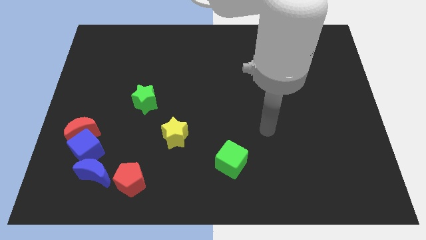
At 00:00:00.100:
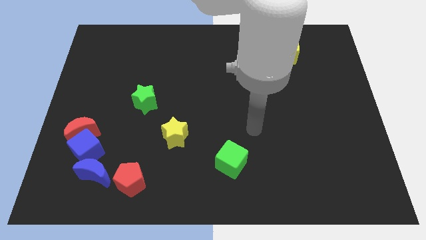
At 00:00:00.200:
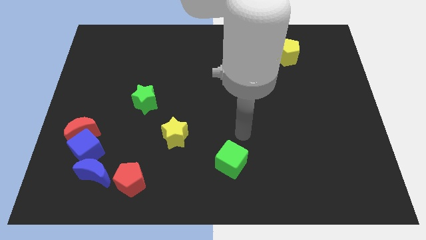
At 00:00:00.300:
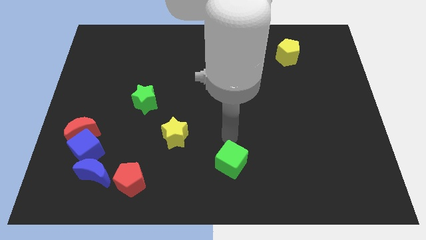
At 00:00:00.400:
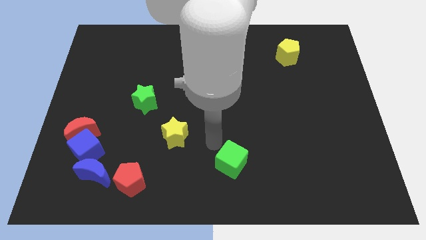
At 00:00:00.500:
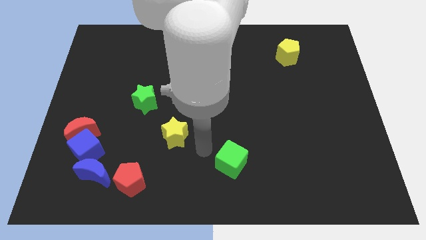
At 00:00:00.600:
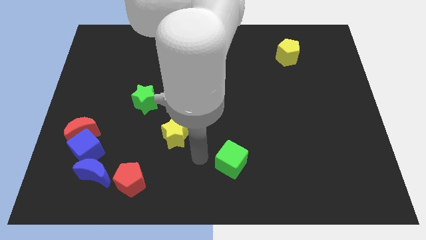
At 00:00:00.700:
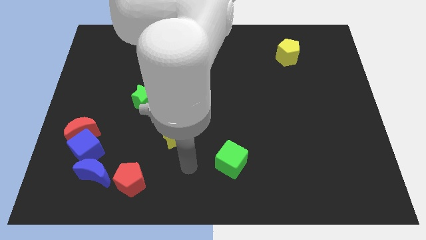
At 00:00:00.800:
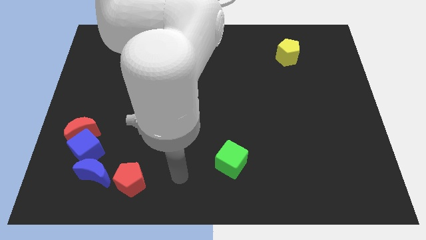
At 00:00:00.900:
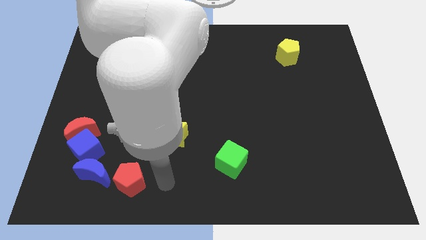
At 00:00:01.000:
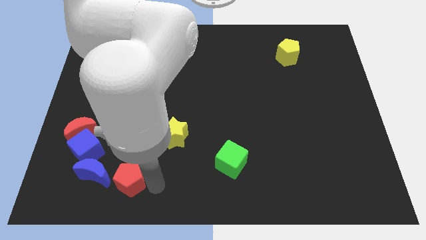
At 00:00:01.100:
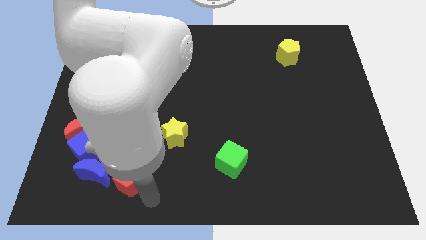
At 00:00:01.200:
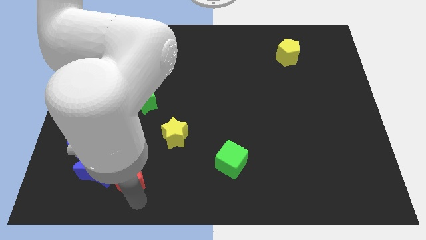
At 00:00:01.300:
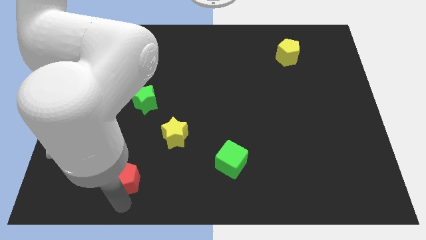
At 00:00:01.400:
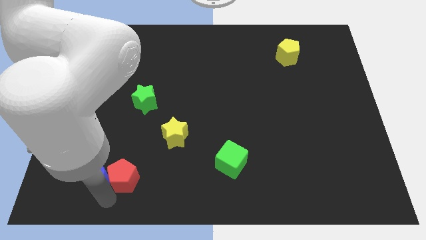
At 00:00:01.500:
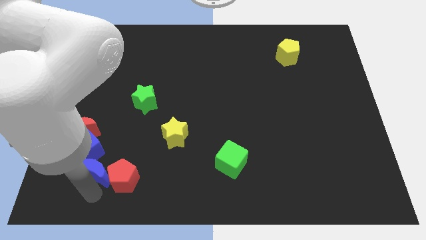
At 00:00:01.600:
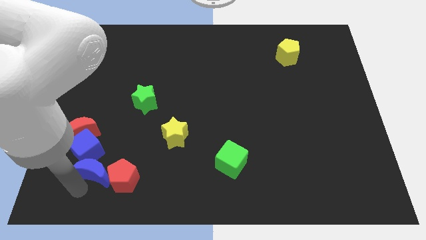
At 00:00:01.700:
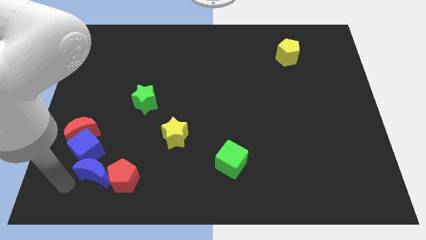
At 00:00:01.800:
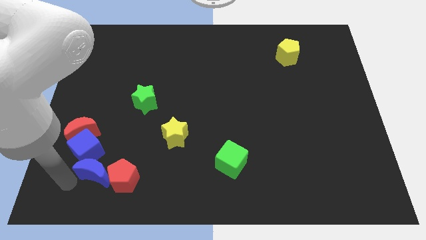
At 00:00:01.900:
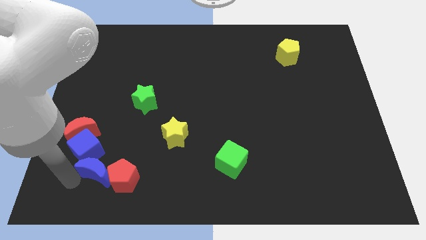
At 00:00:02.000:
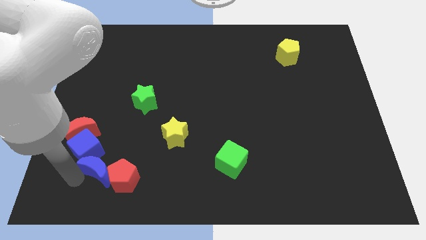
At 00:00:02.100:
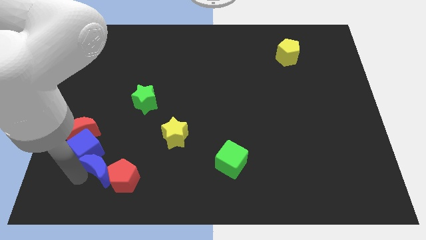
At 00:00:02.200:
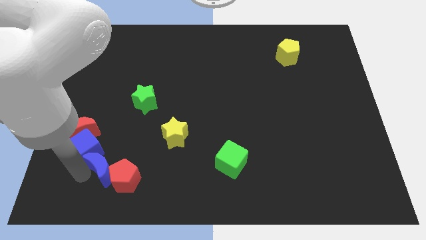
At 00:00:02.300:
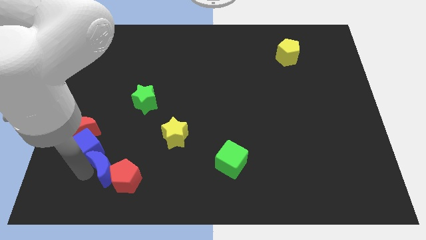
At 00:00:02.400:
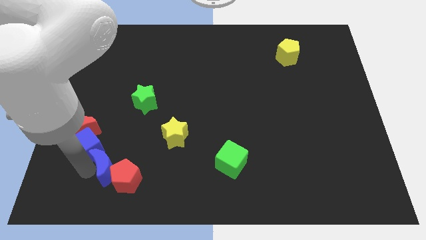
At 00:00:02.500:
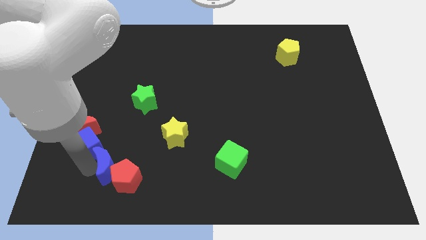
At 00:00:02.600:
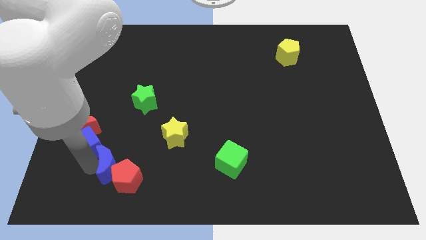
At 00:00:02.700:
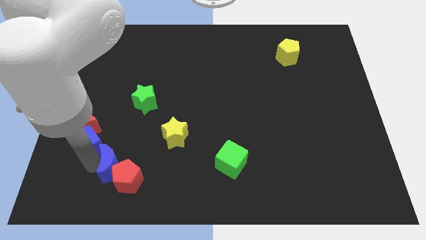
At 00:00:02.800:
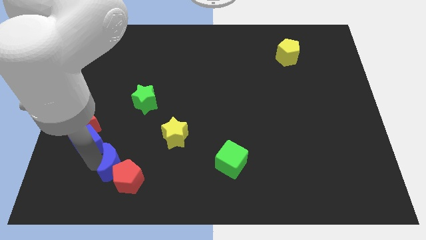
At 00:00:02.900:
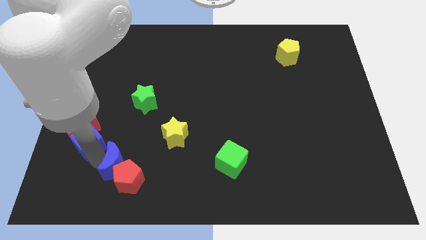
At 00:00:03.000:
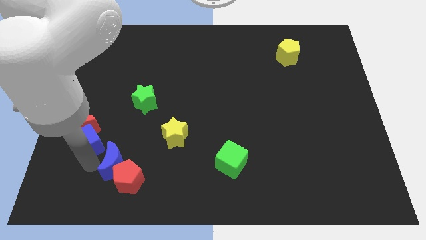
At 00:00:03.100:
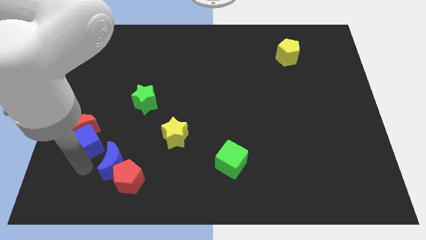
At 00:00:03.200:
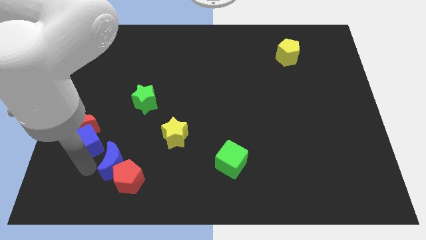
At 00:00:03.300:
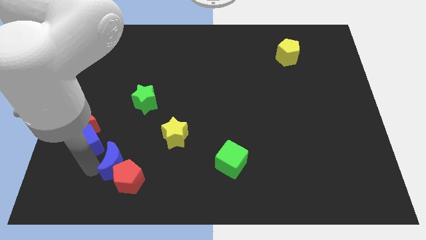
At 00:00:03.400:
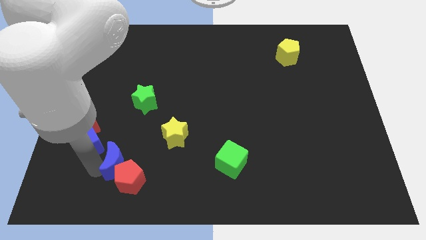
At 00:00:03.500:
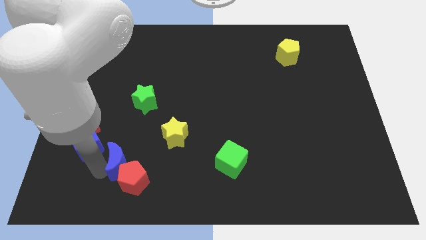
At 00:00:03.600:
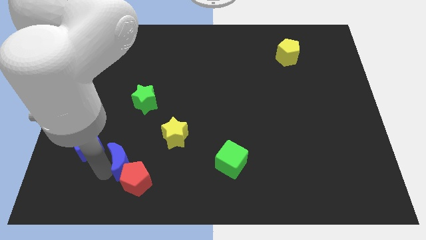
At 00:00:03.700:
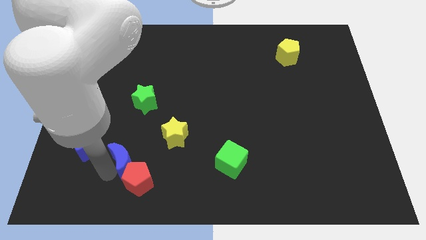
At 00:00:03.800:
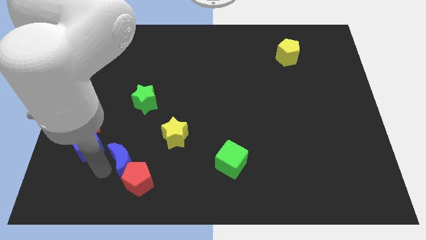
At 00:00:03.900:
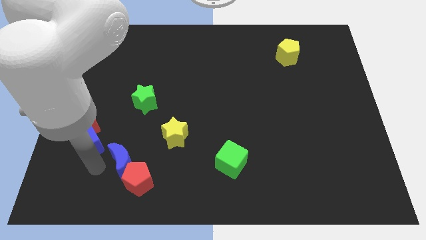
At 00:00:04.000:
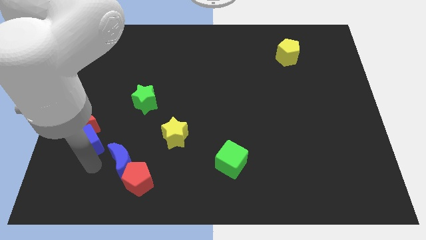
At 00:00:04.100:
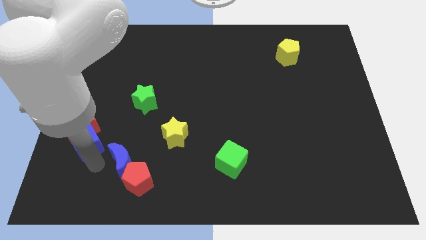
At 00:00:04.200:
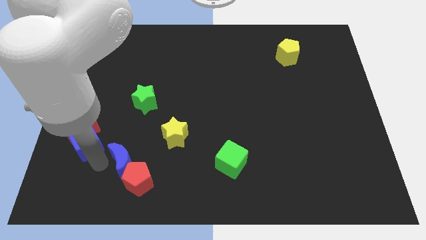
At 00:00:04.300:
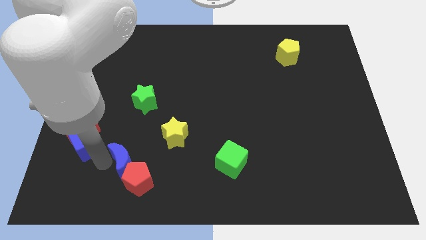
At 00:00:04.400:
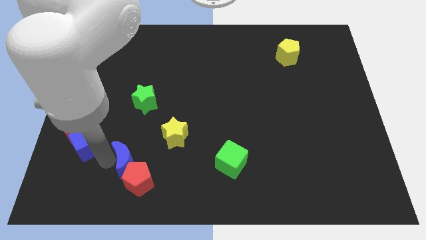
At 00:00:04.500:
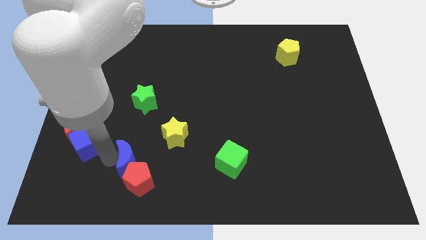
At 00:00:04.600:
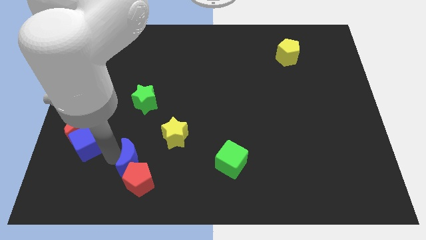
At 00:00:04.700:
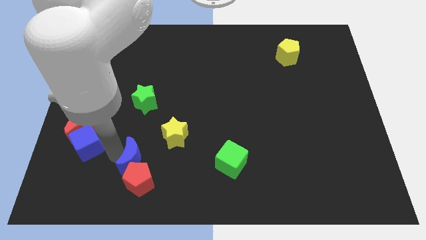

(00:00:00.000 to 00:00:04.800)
slide the blue moon a bit to the right

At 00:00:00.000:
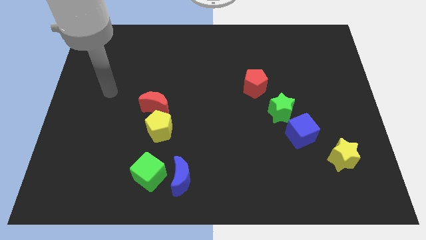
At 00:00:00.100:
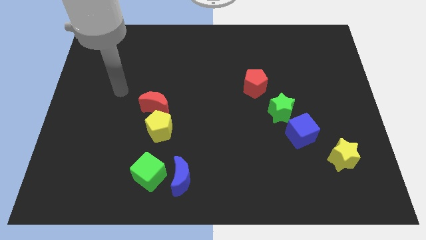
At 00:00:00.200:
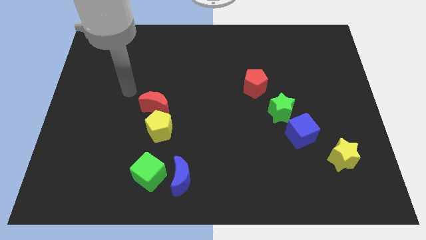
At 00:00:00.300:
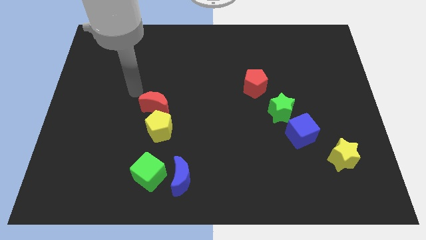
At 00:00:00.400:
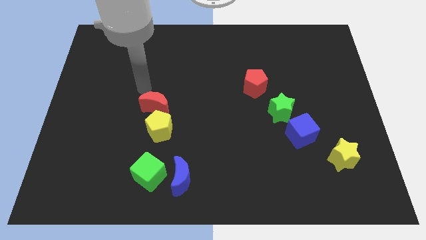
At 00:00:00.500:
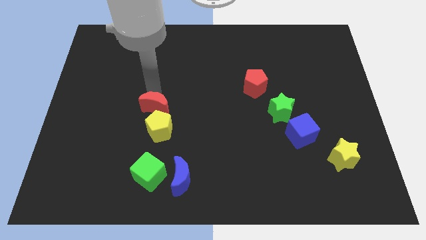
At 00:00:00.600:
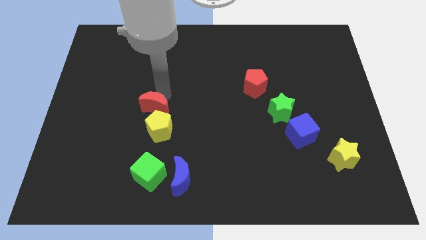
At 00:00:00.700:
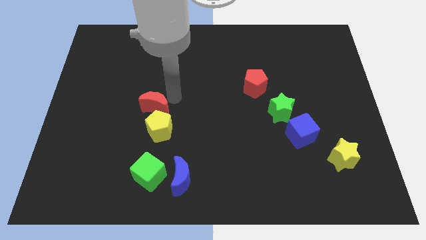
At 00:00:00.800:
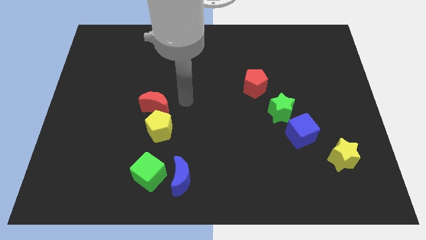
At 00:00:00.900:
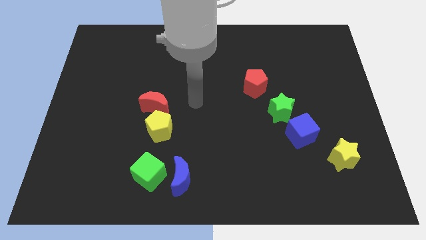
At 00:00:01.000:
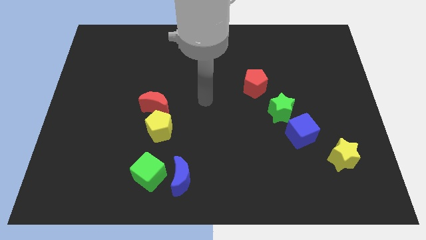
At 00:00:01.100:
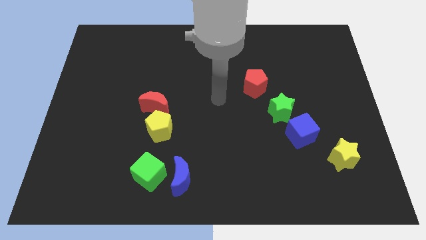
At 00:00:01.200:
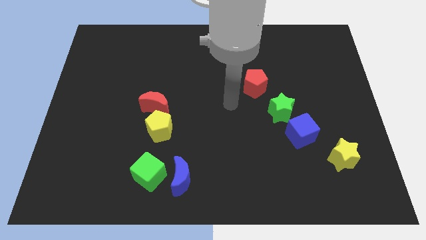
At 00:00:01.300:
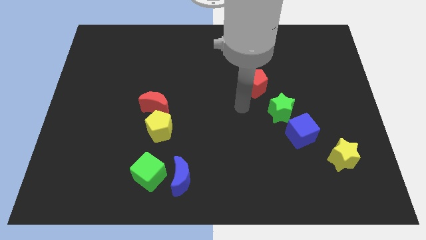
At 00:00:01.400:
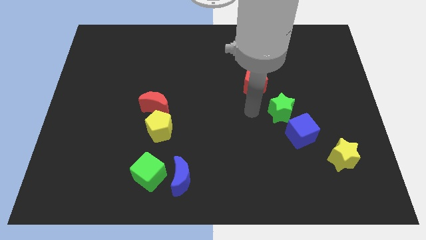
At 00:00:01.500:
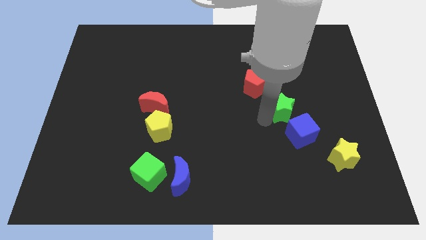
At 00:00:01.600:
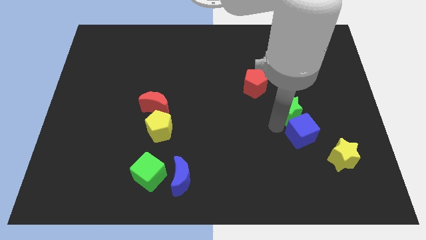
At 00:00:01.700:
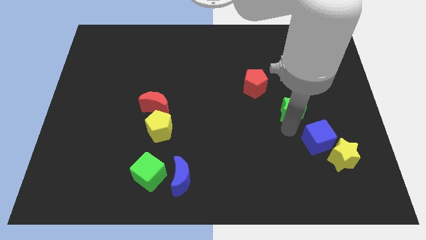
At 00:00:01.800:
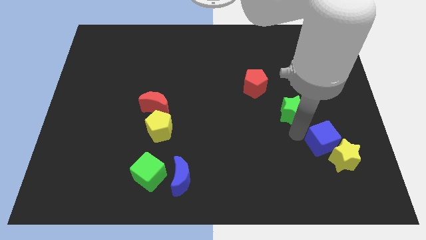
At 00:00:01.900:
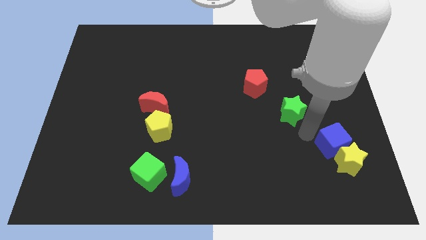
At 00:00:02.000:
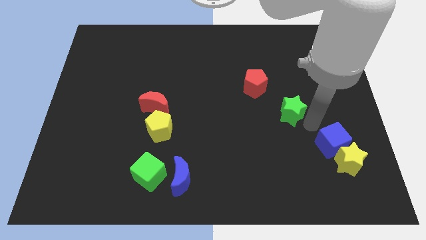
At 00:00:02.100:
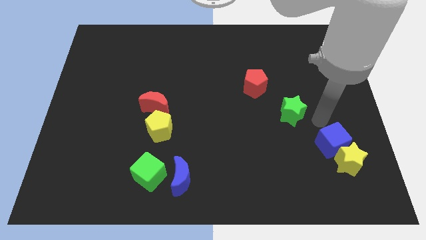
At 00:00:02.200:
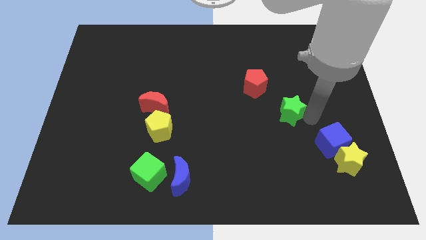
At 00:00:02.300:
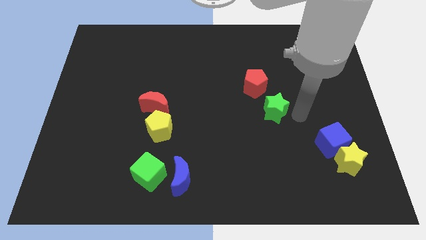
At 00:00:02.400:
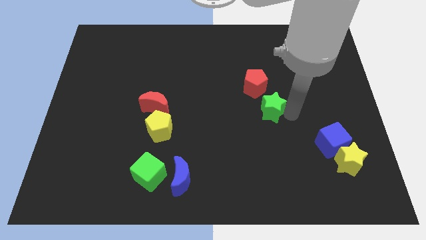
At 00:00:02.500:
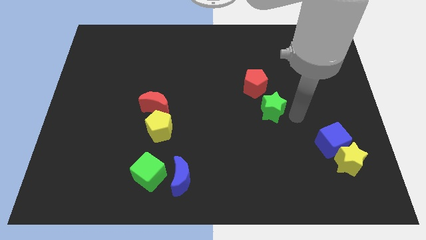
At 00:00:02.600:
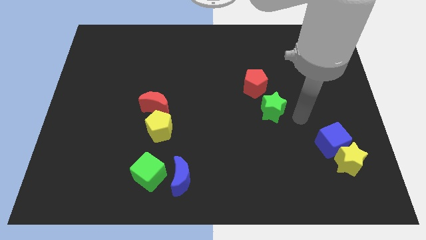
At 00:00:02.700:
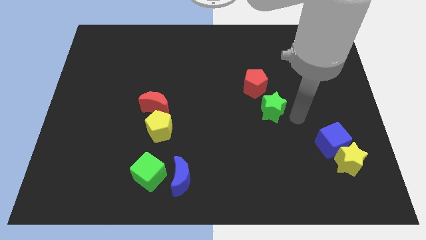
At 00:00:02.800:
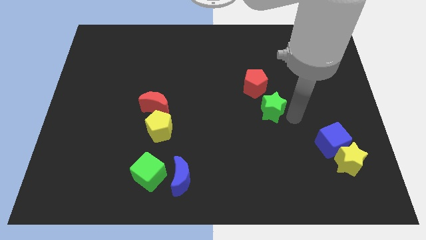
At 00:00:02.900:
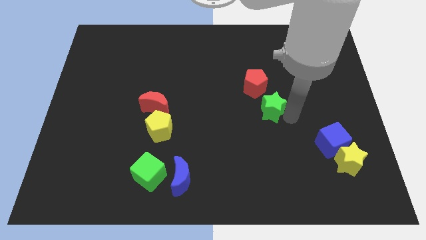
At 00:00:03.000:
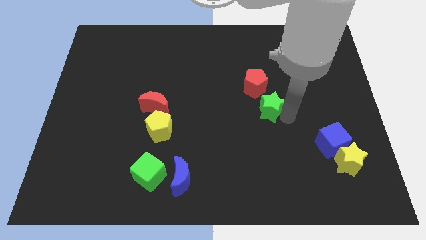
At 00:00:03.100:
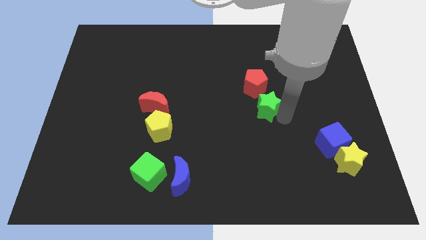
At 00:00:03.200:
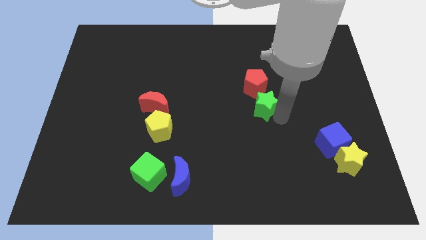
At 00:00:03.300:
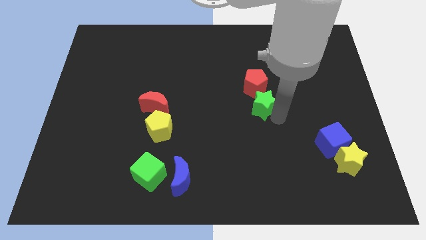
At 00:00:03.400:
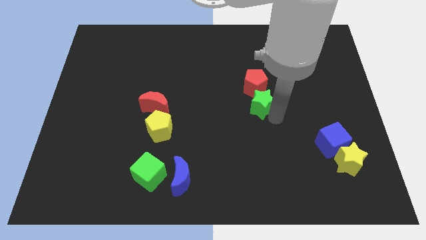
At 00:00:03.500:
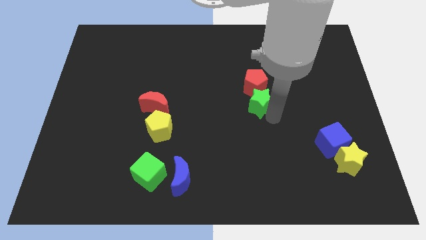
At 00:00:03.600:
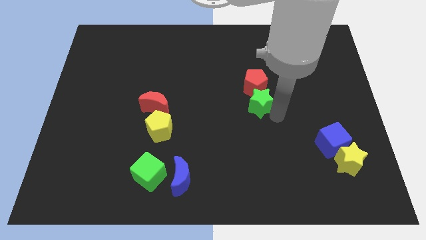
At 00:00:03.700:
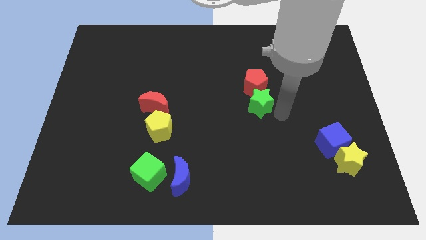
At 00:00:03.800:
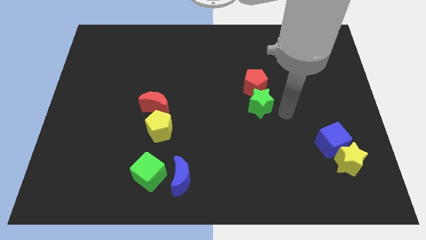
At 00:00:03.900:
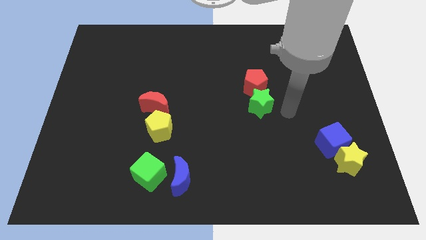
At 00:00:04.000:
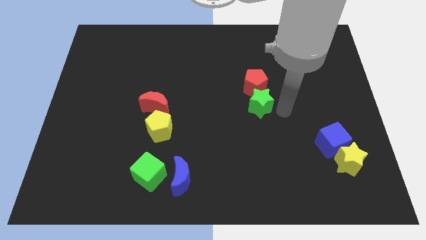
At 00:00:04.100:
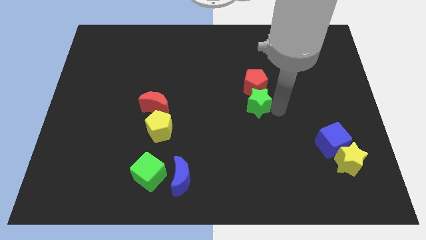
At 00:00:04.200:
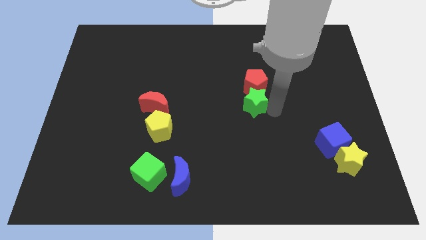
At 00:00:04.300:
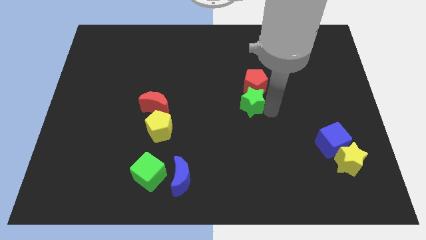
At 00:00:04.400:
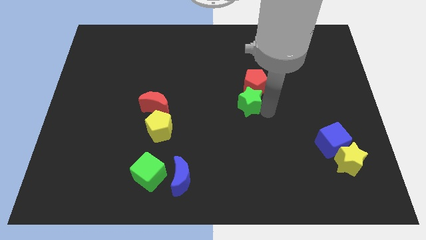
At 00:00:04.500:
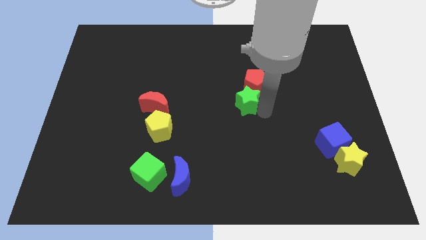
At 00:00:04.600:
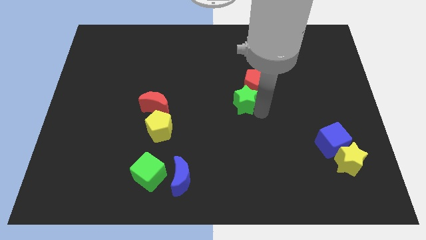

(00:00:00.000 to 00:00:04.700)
slightly move the green star upwards and then to the left
